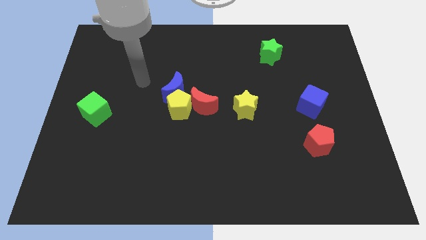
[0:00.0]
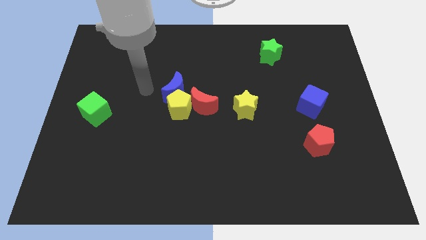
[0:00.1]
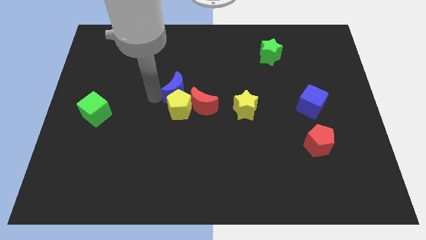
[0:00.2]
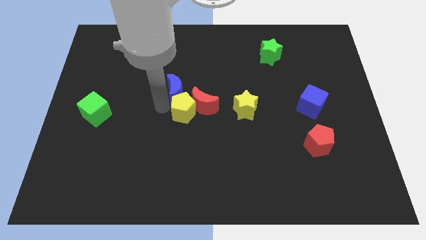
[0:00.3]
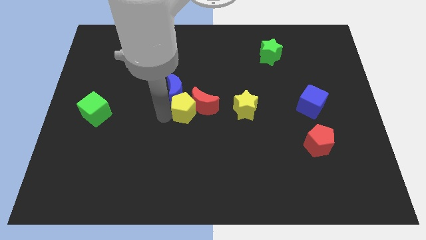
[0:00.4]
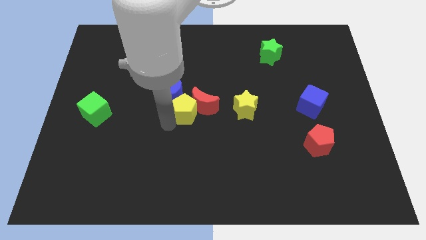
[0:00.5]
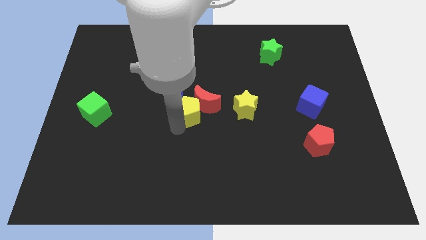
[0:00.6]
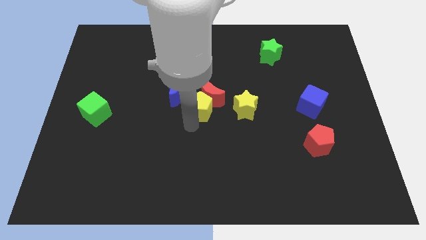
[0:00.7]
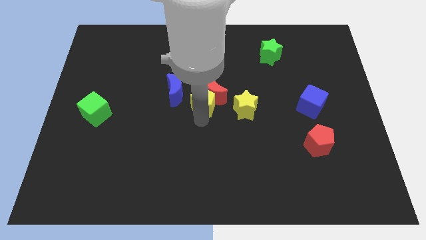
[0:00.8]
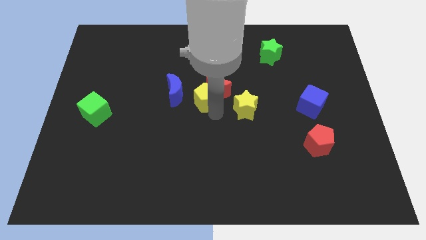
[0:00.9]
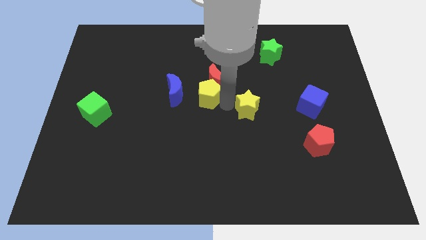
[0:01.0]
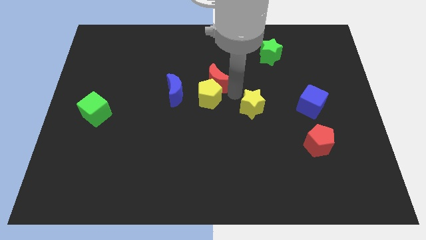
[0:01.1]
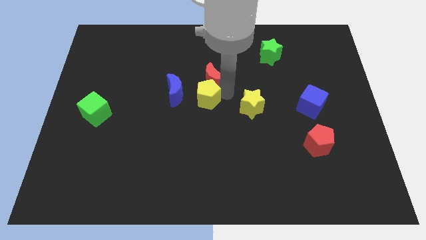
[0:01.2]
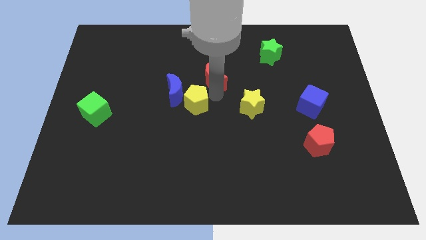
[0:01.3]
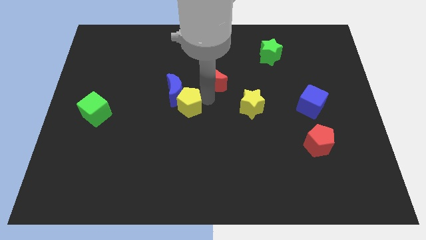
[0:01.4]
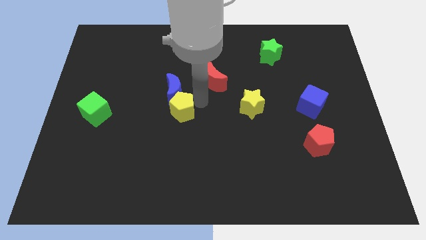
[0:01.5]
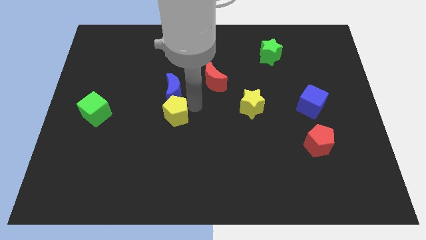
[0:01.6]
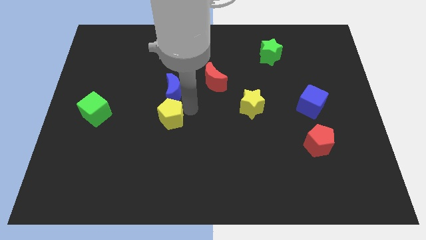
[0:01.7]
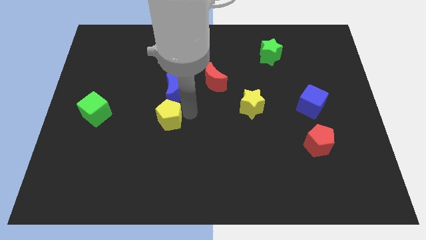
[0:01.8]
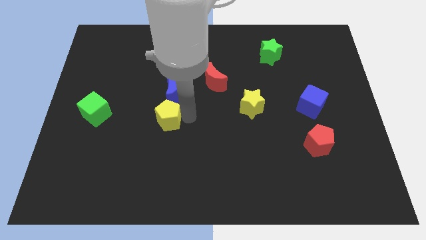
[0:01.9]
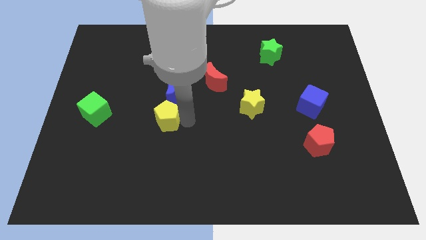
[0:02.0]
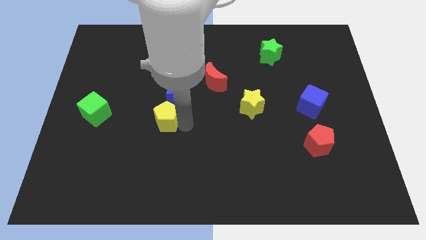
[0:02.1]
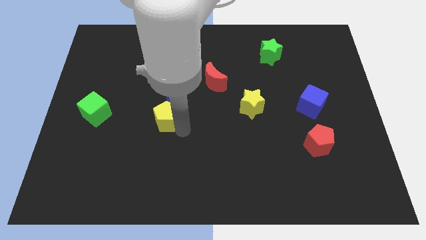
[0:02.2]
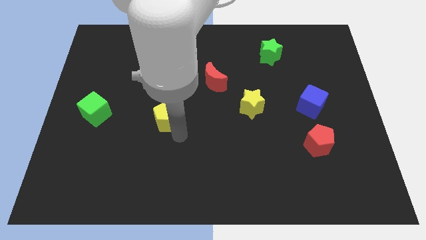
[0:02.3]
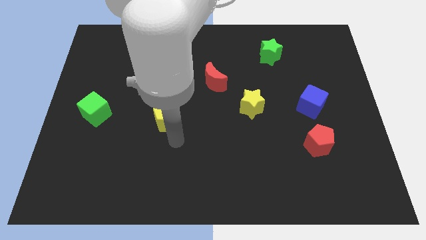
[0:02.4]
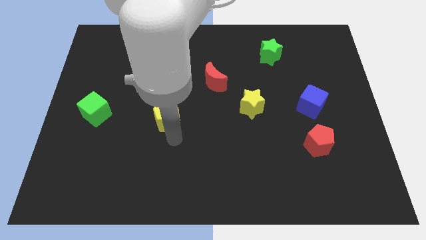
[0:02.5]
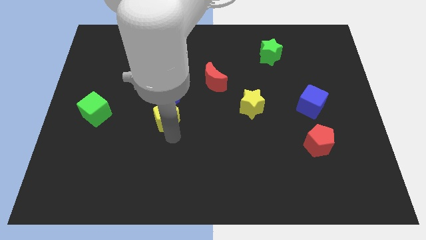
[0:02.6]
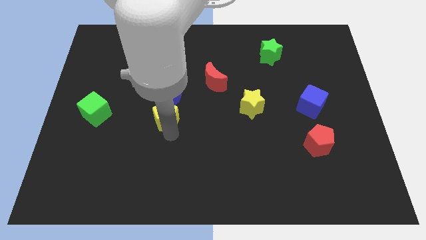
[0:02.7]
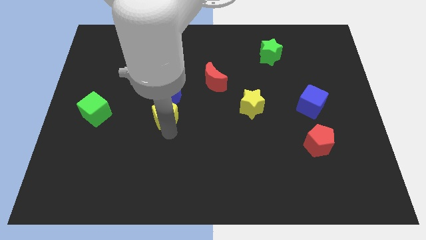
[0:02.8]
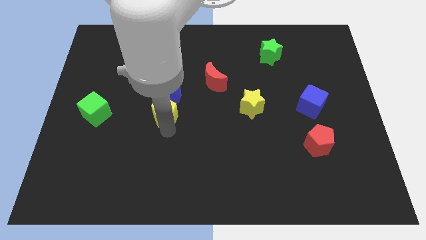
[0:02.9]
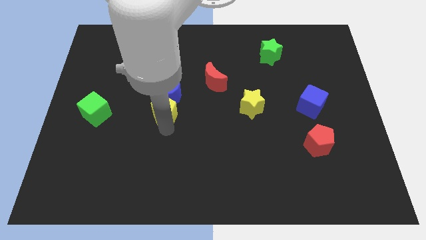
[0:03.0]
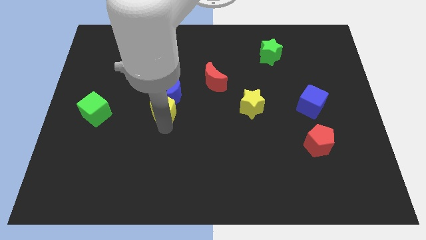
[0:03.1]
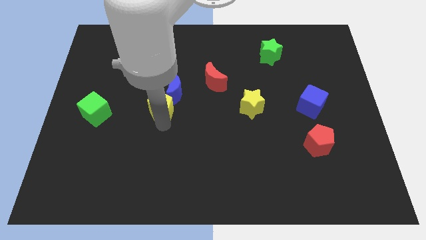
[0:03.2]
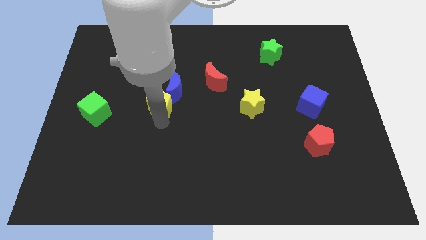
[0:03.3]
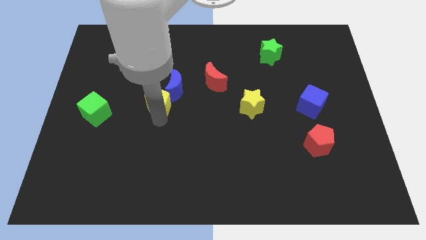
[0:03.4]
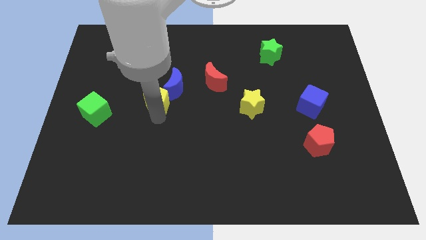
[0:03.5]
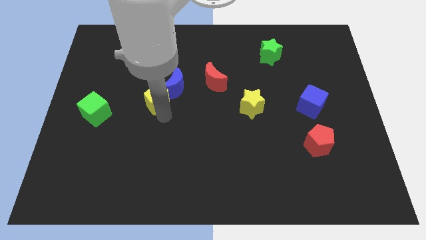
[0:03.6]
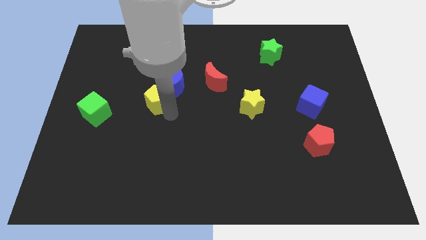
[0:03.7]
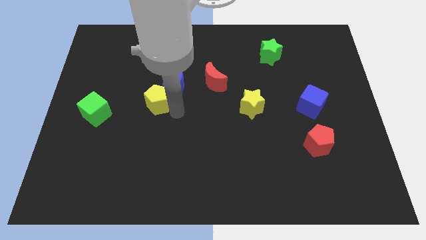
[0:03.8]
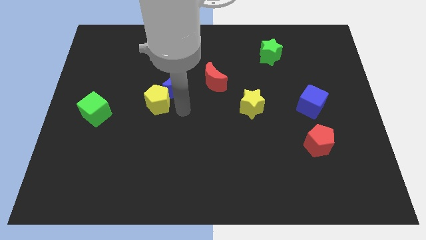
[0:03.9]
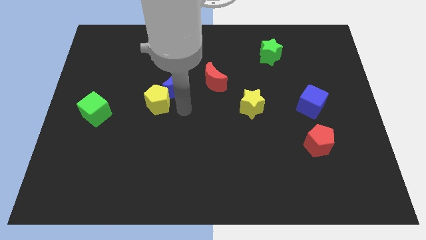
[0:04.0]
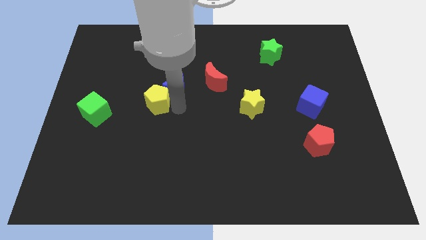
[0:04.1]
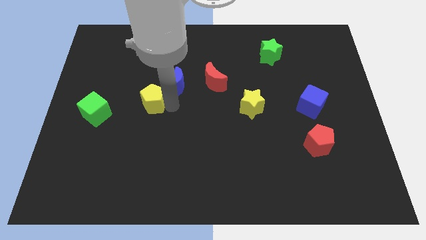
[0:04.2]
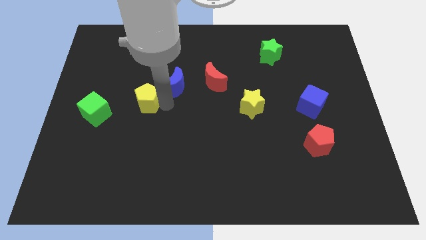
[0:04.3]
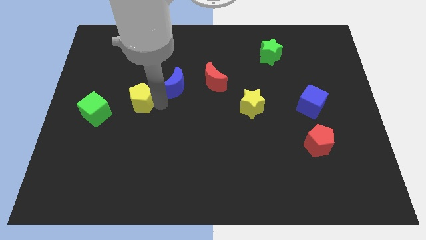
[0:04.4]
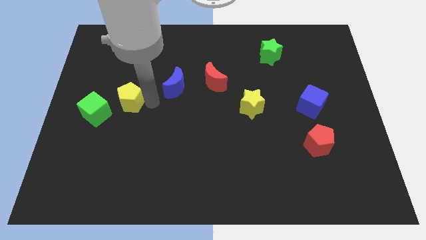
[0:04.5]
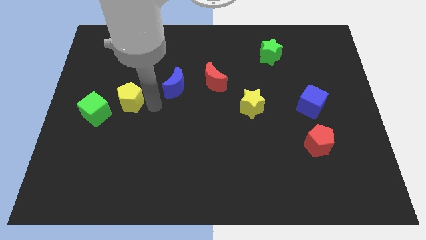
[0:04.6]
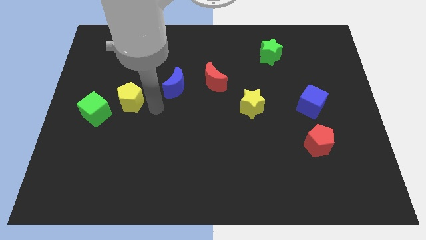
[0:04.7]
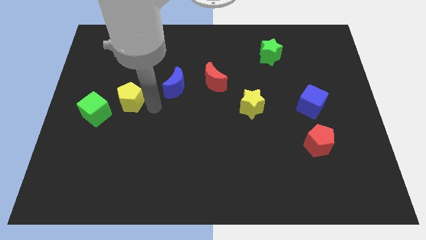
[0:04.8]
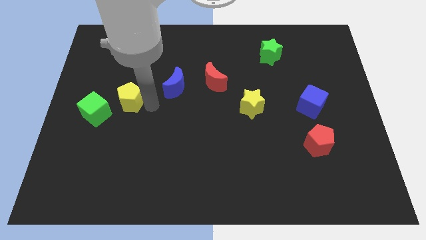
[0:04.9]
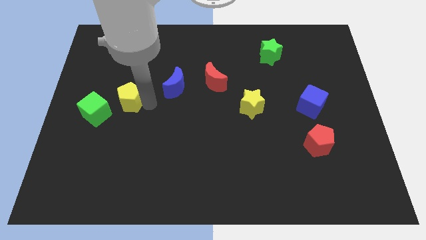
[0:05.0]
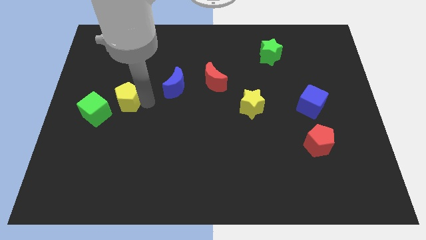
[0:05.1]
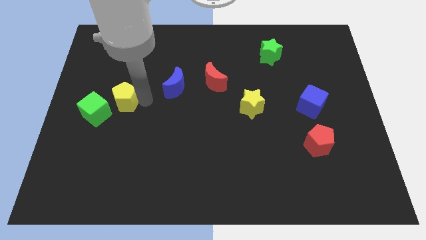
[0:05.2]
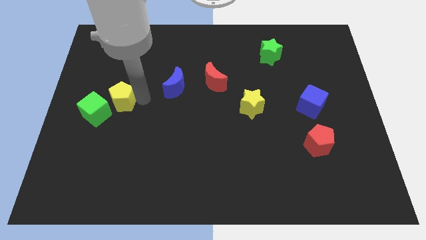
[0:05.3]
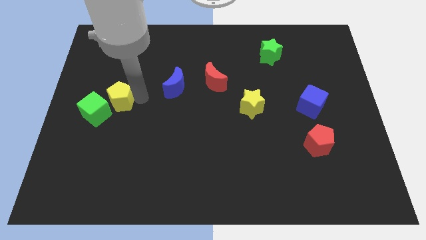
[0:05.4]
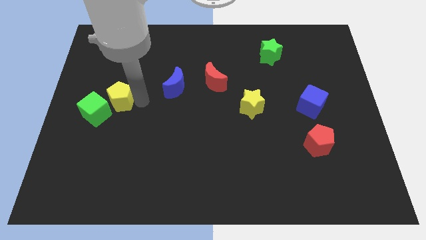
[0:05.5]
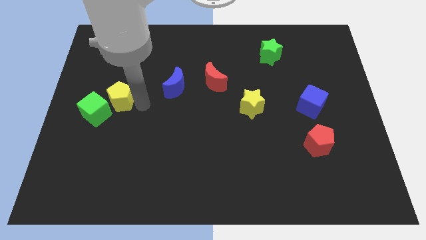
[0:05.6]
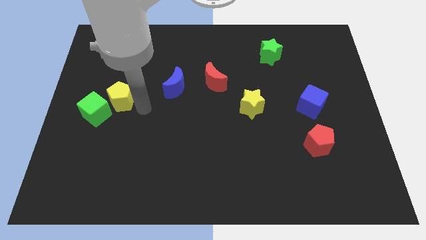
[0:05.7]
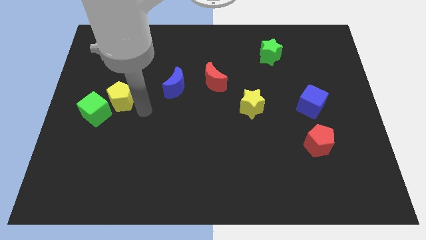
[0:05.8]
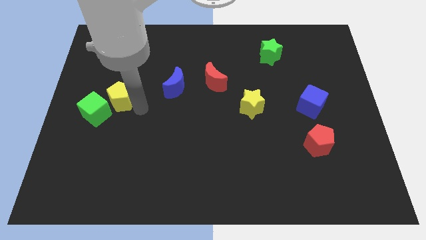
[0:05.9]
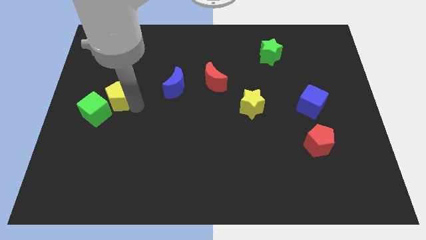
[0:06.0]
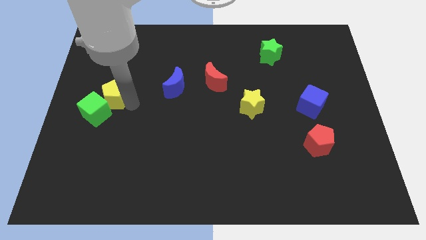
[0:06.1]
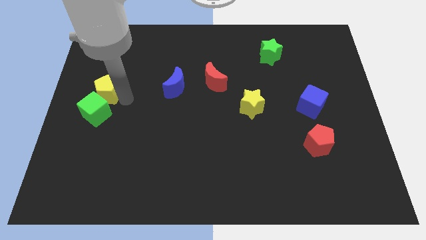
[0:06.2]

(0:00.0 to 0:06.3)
put the yellow pentagon to the left side
